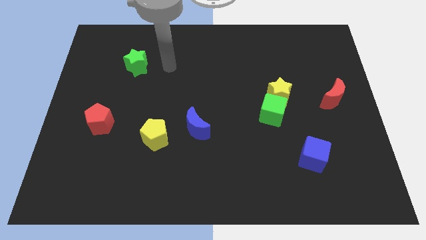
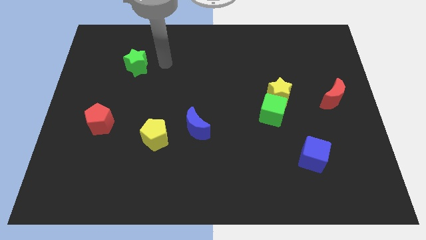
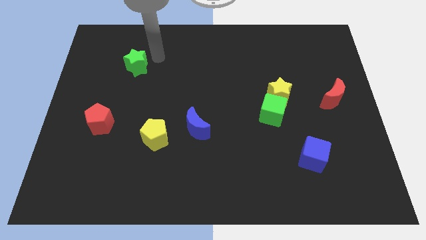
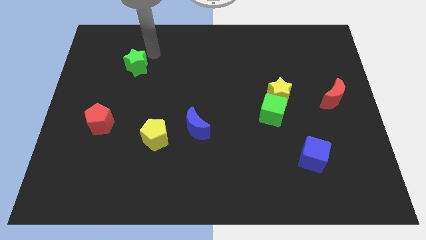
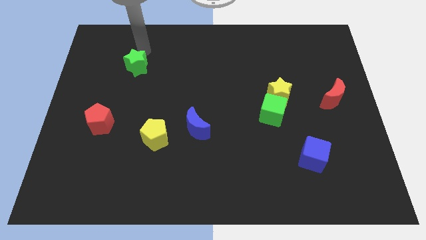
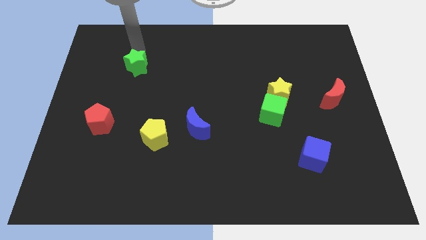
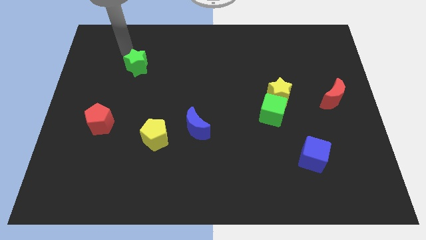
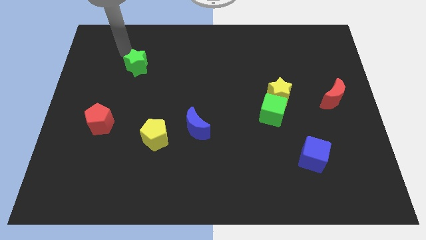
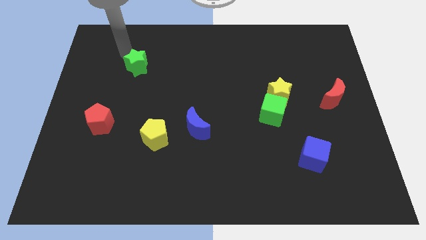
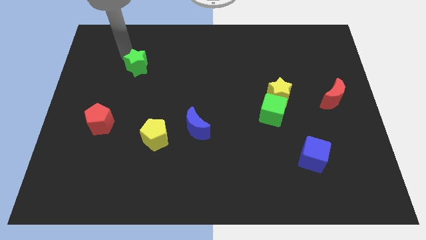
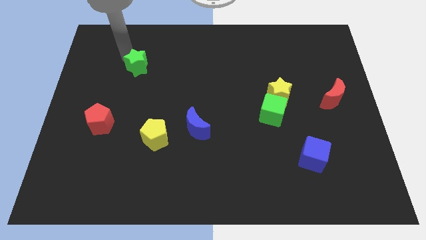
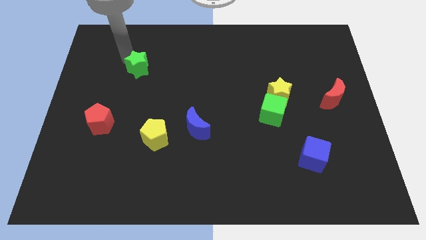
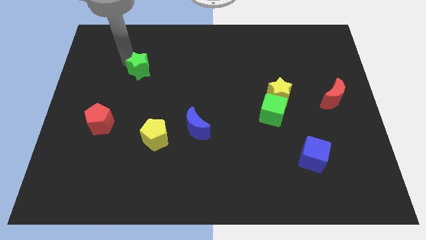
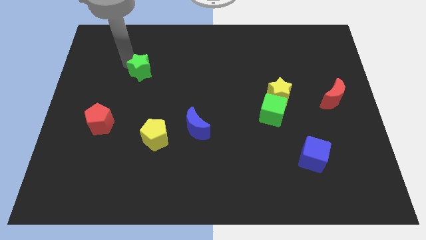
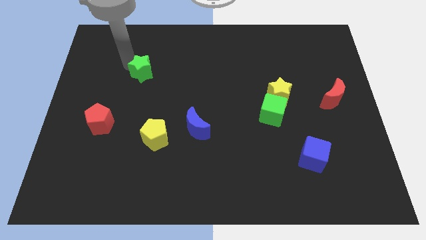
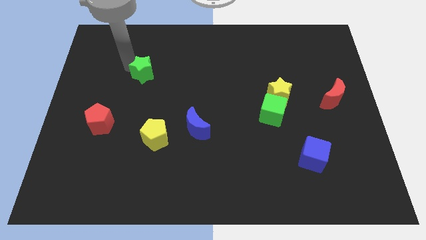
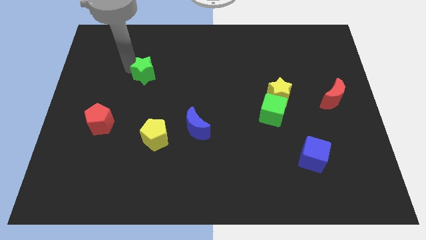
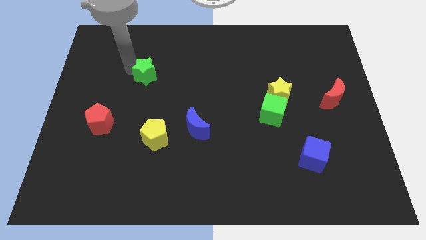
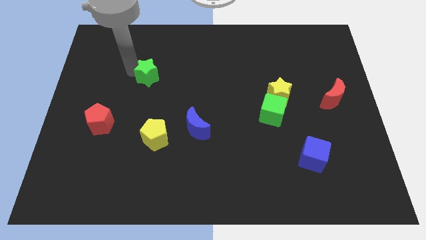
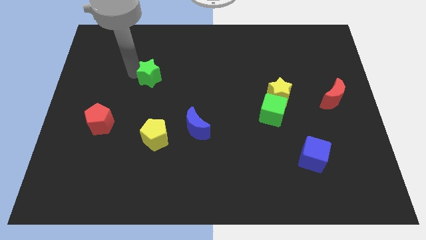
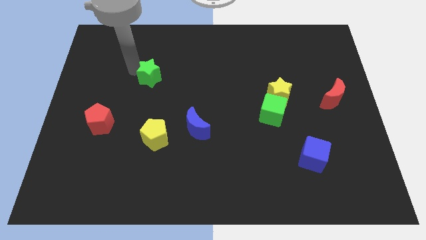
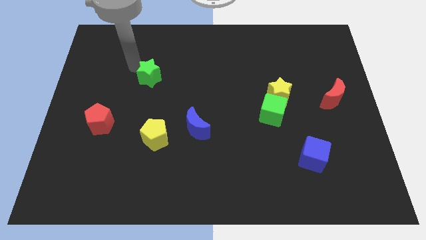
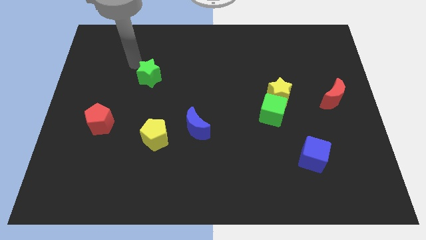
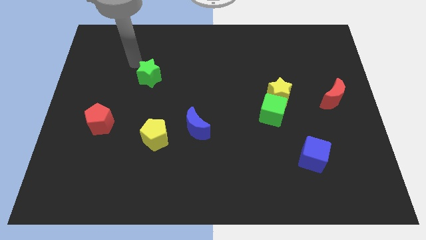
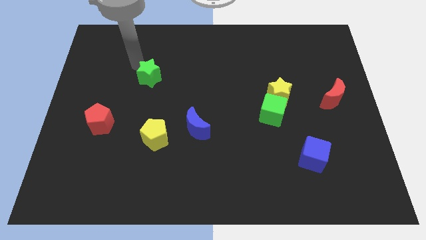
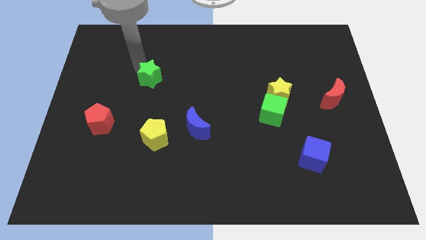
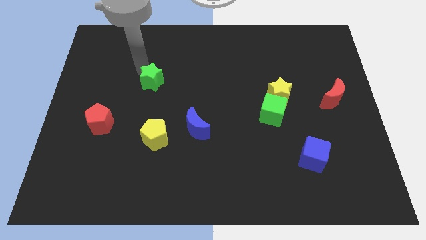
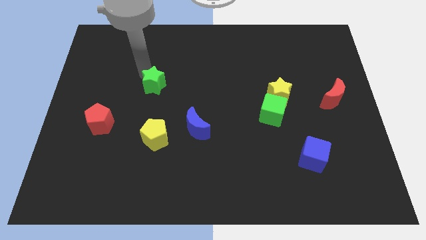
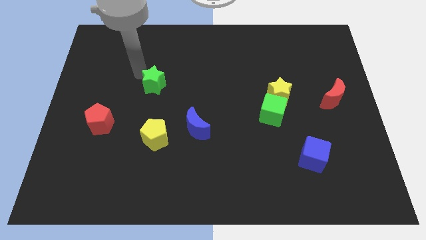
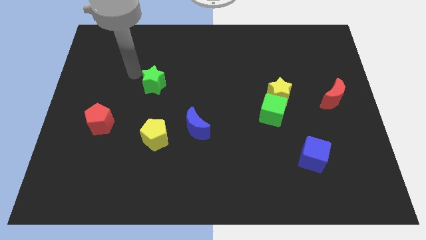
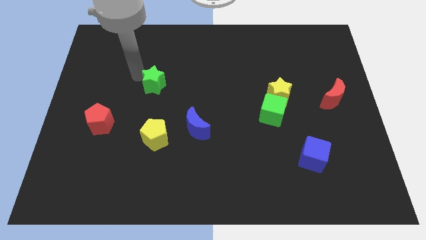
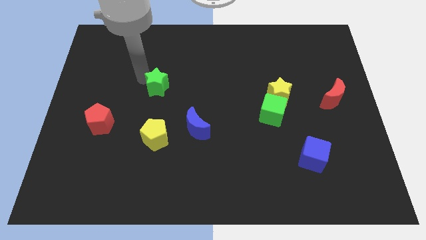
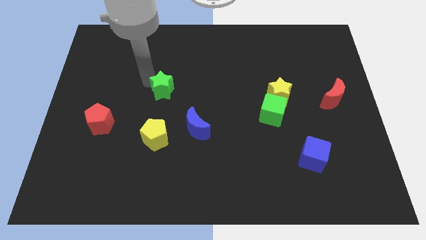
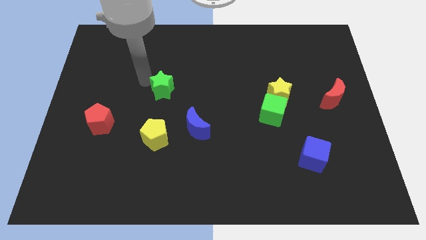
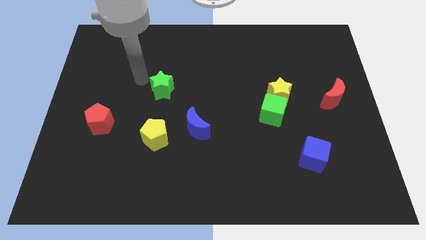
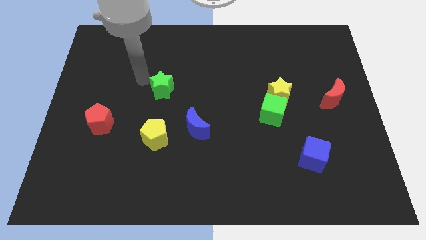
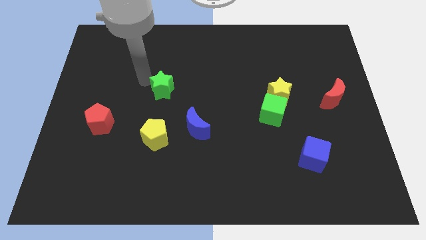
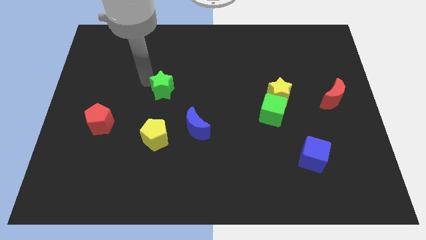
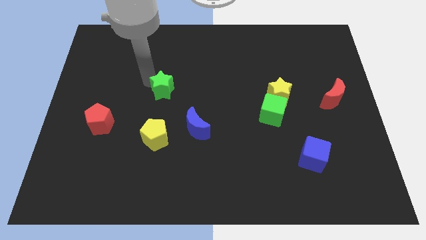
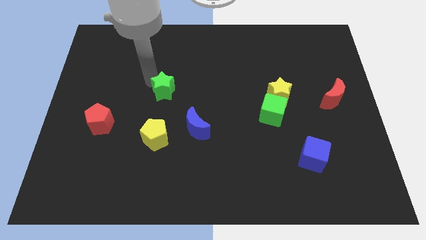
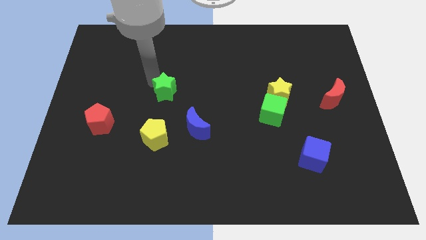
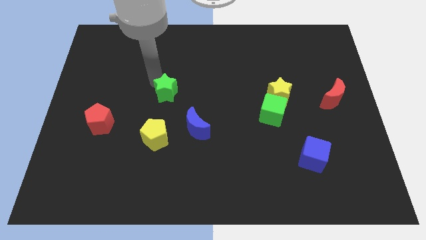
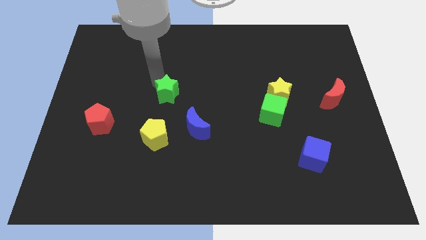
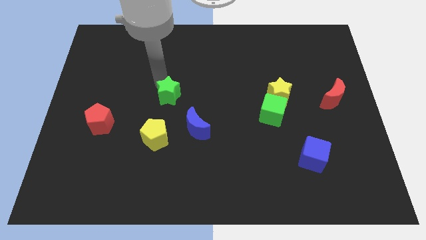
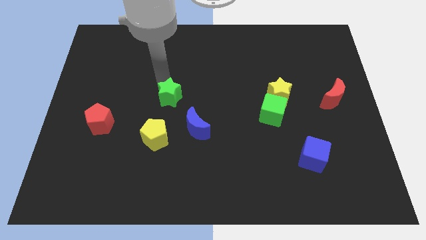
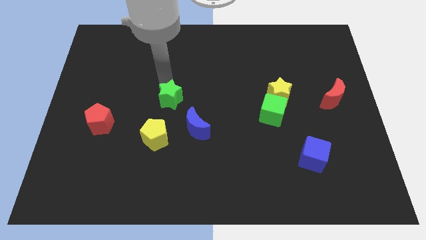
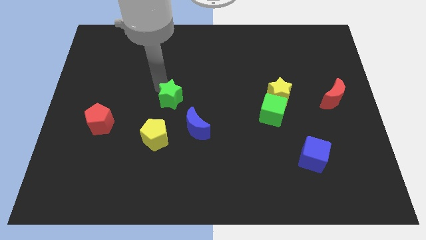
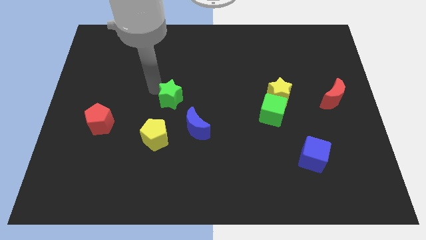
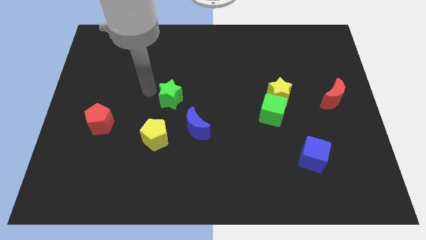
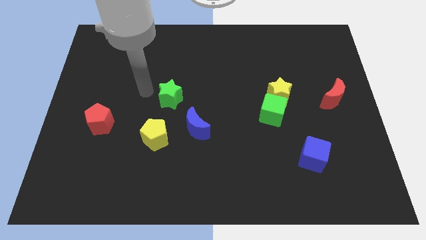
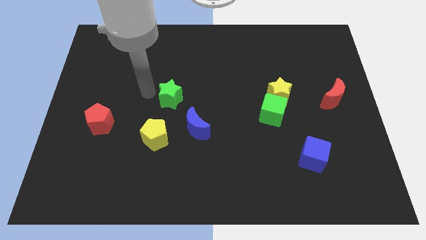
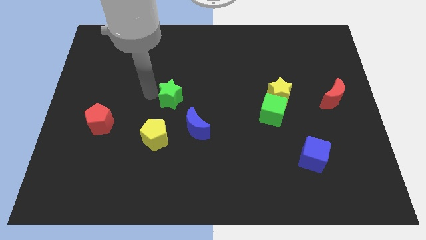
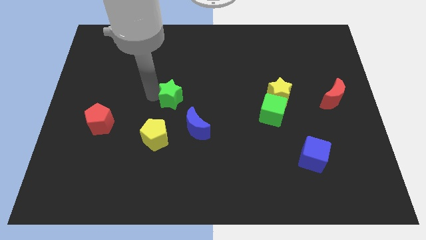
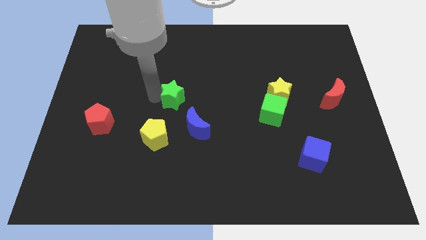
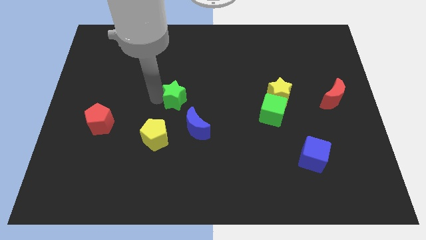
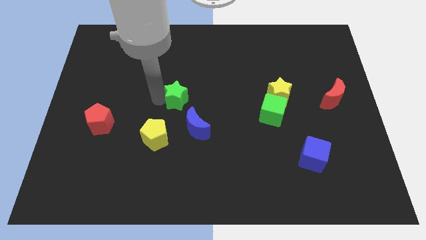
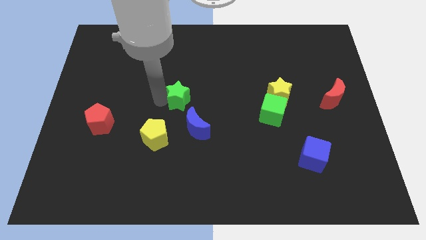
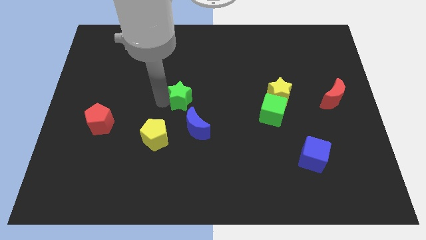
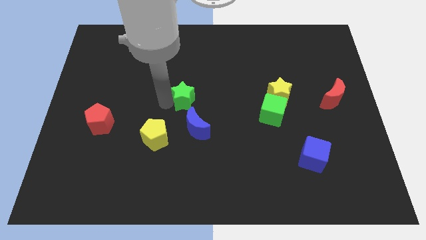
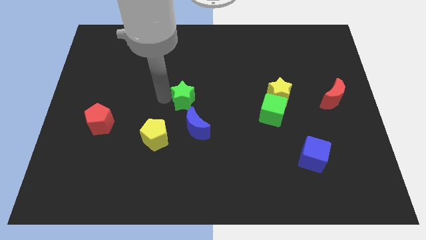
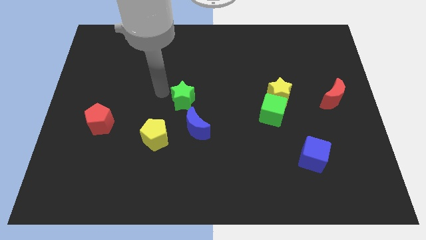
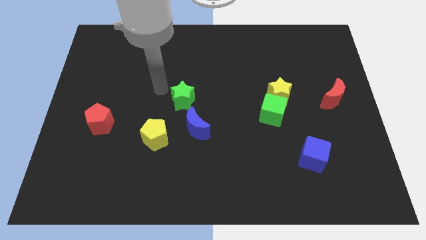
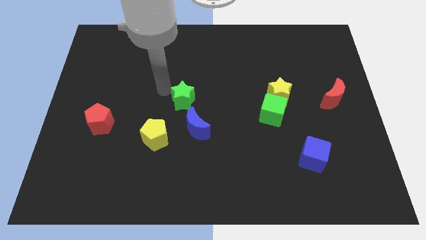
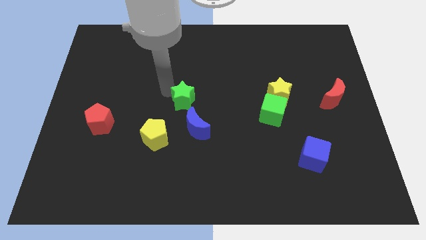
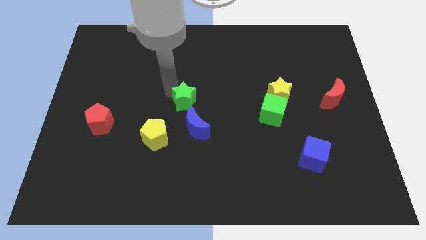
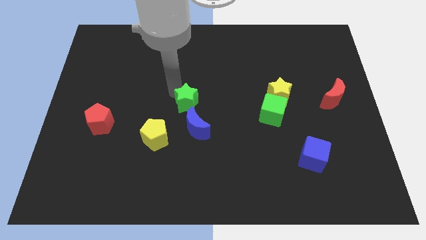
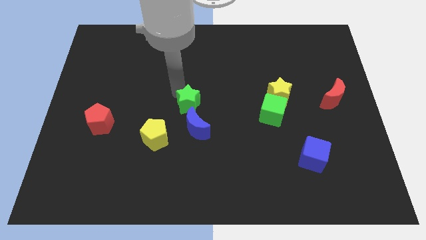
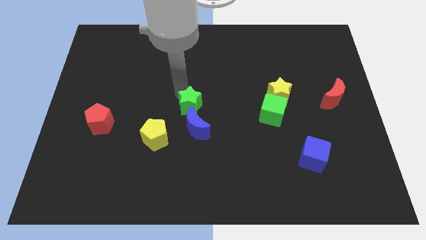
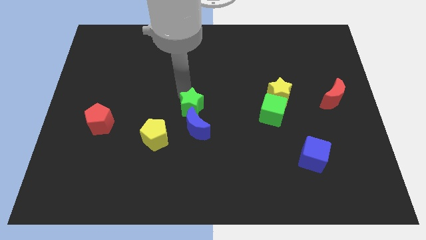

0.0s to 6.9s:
move the green star downwards and to the right

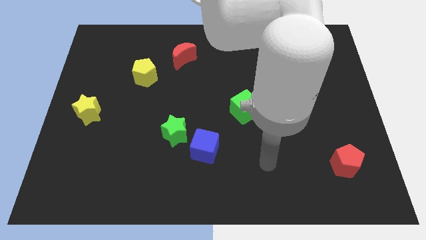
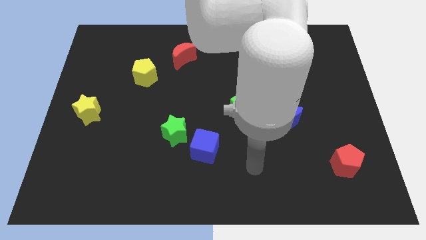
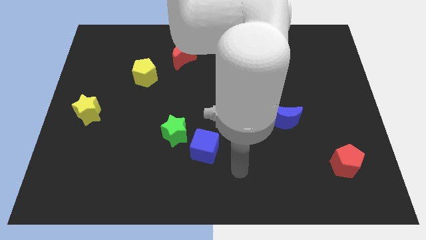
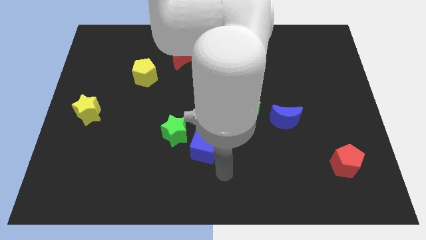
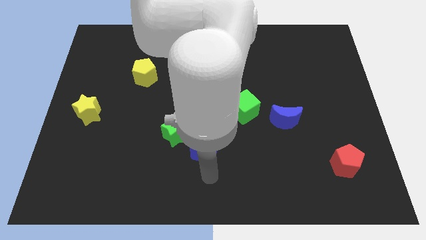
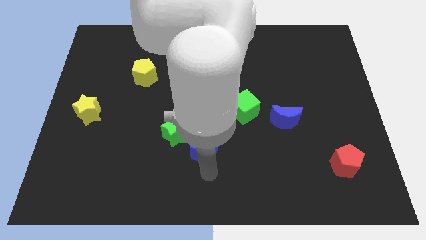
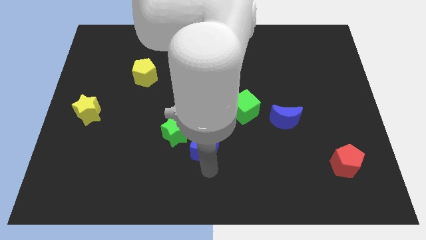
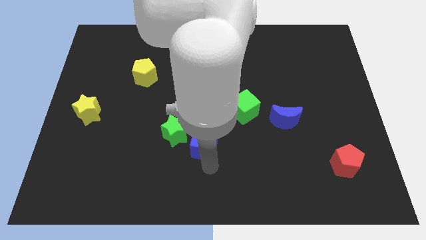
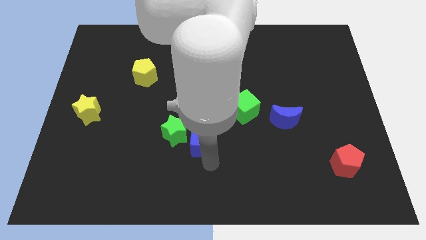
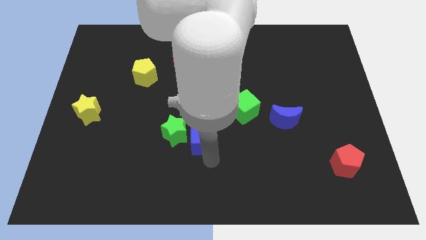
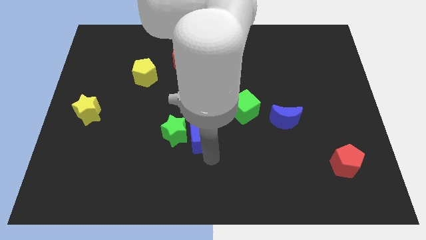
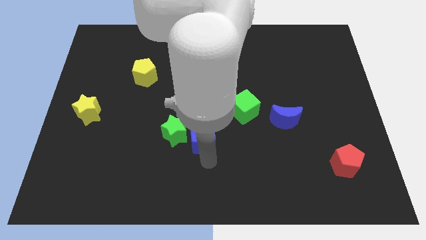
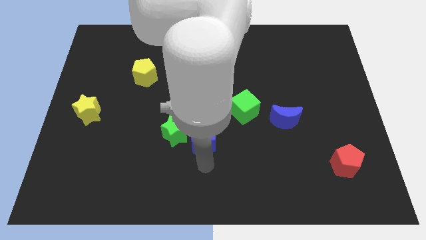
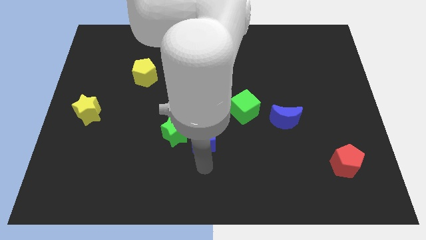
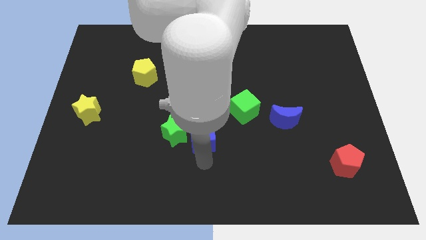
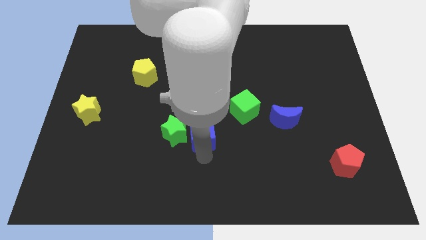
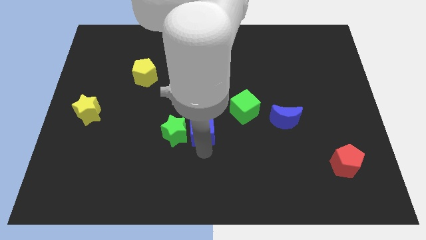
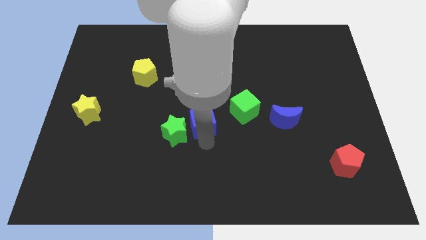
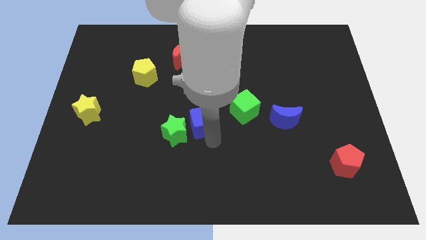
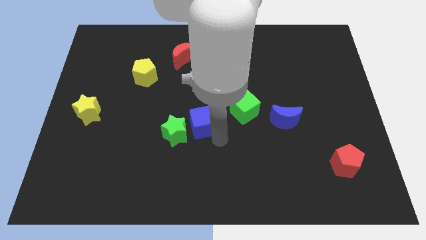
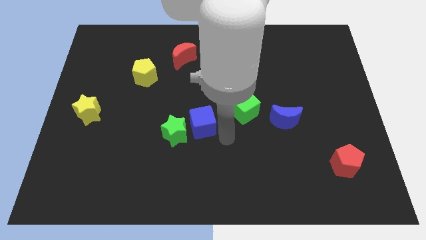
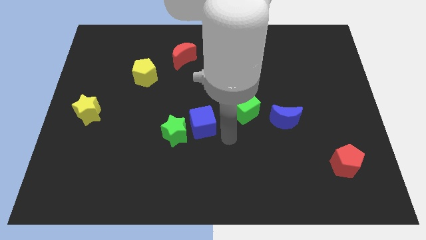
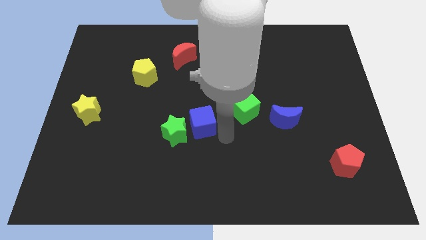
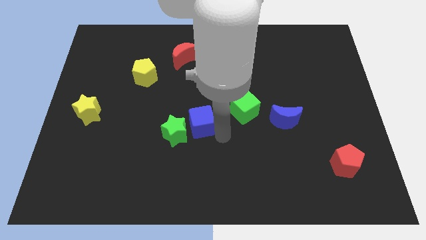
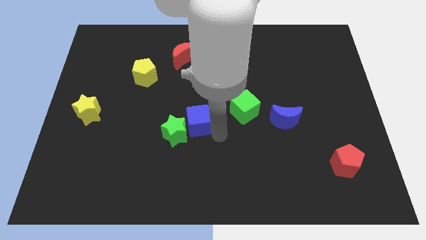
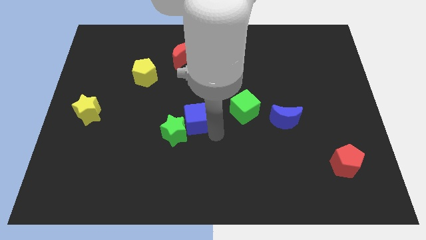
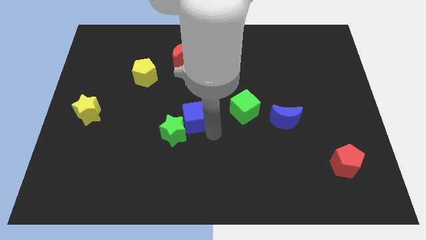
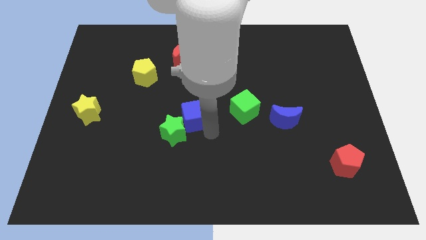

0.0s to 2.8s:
slightly push the blue cube upwards and left
